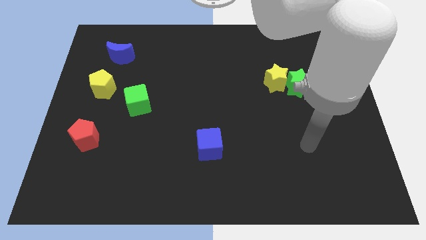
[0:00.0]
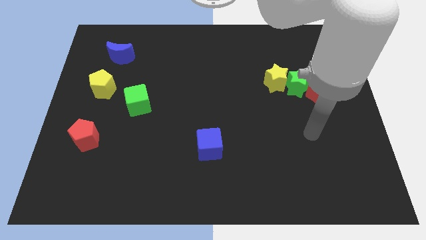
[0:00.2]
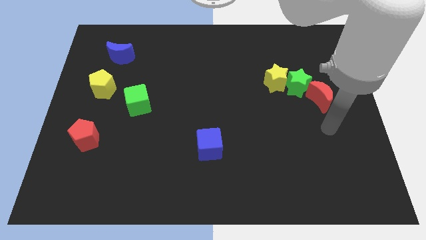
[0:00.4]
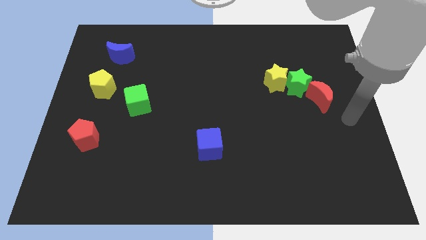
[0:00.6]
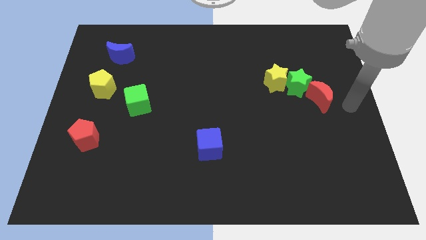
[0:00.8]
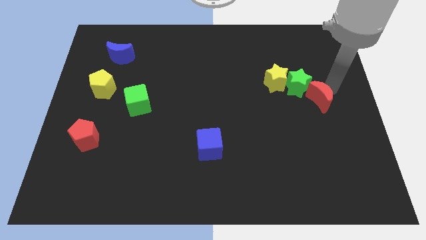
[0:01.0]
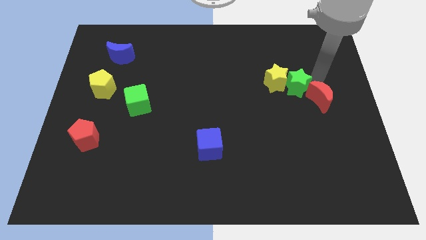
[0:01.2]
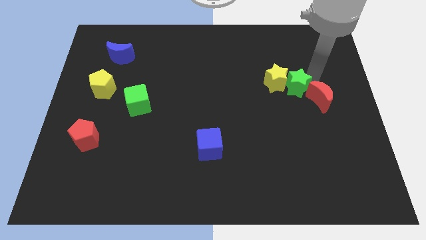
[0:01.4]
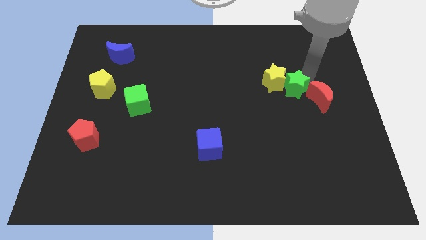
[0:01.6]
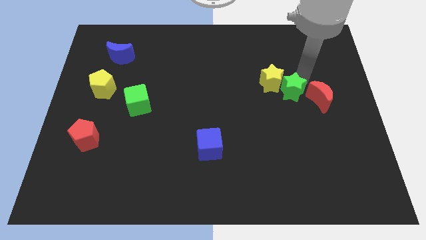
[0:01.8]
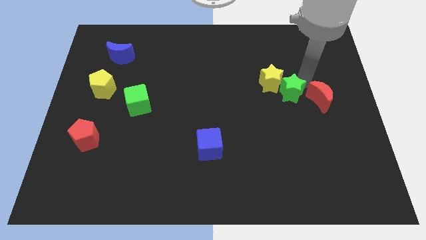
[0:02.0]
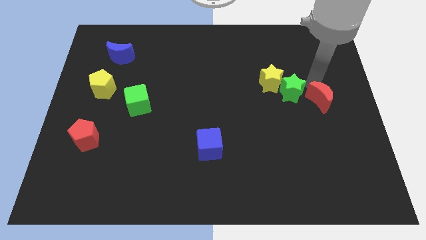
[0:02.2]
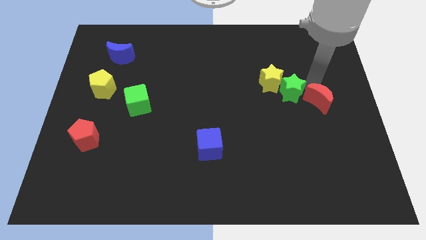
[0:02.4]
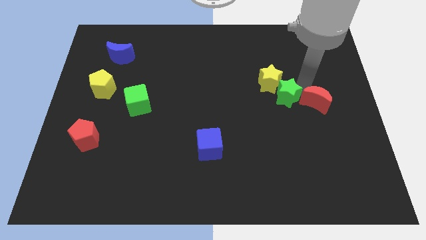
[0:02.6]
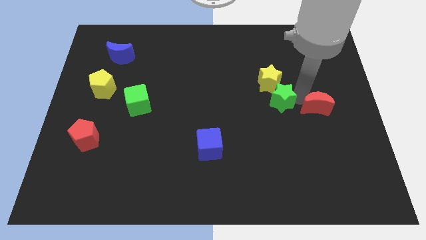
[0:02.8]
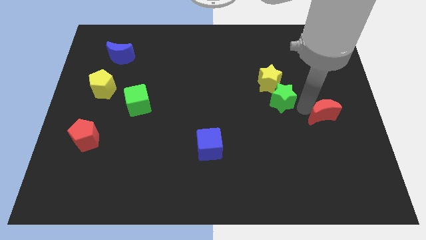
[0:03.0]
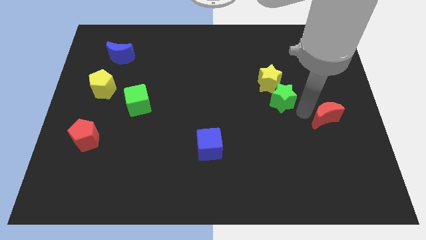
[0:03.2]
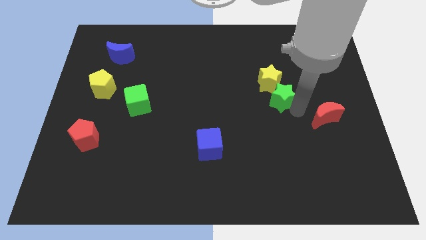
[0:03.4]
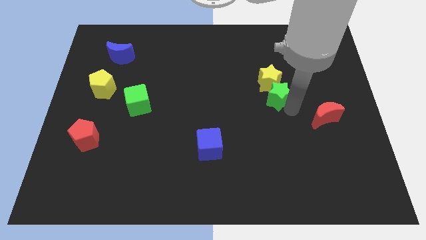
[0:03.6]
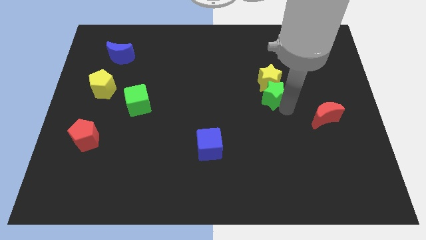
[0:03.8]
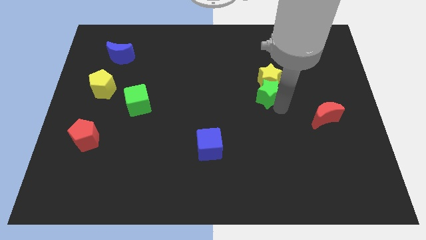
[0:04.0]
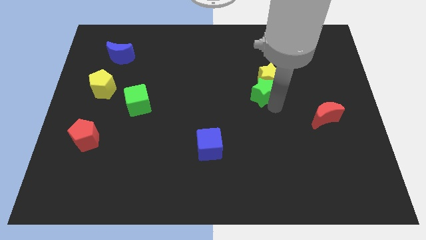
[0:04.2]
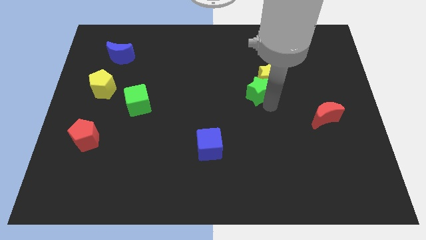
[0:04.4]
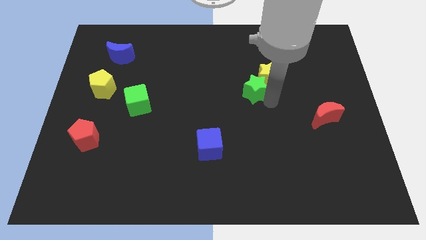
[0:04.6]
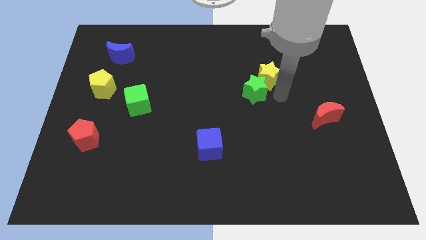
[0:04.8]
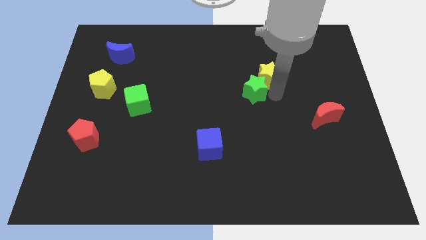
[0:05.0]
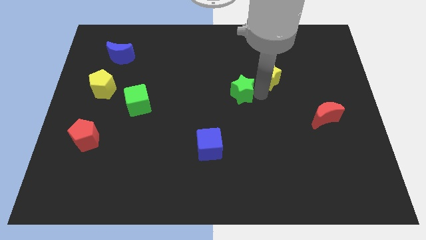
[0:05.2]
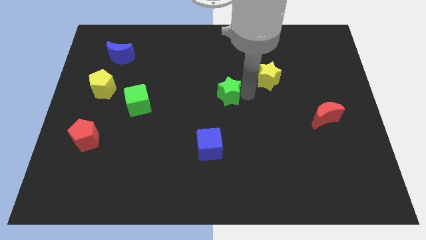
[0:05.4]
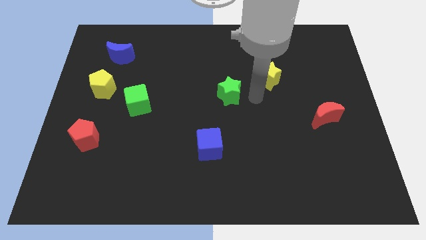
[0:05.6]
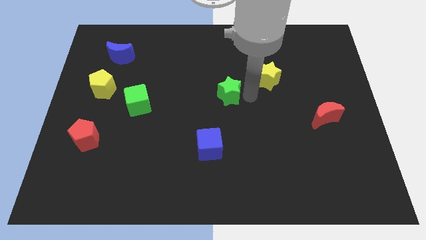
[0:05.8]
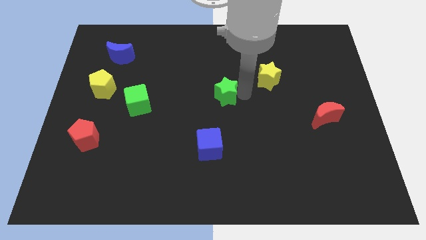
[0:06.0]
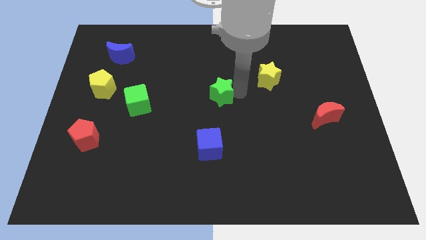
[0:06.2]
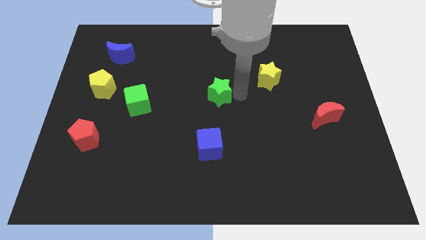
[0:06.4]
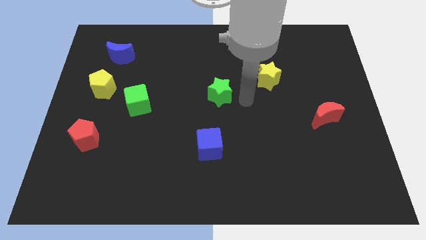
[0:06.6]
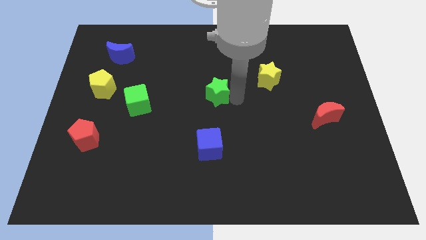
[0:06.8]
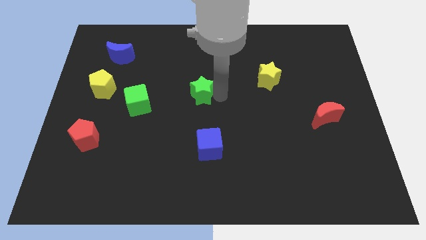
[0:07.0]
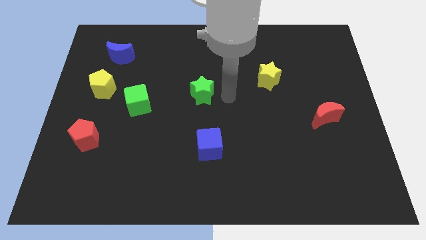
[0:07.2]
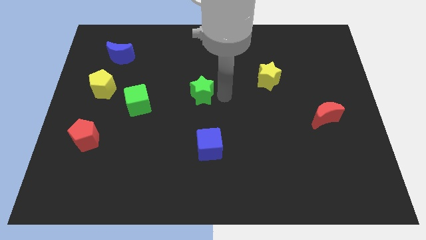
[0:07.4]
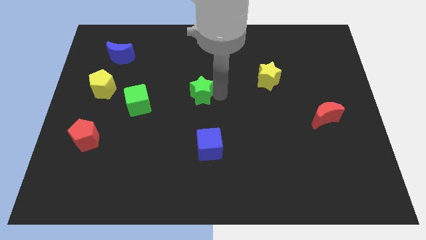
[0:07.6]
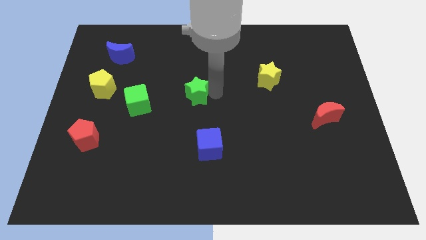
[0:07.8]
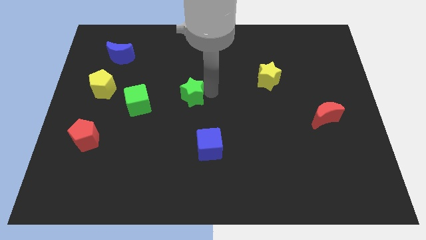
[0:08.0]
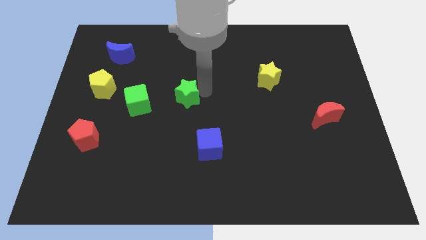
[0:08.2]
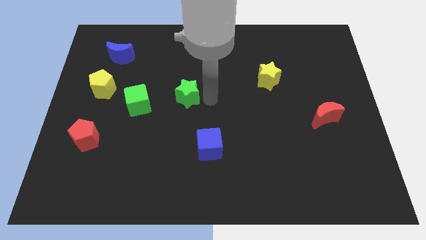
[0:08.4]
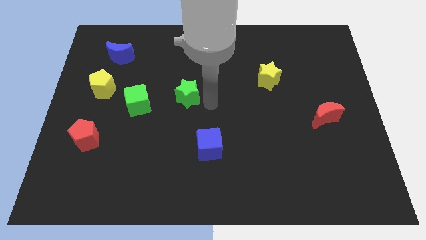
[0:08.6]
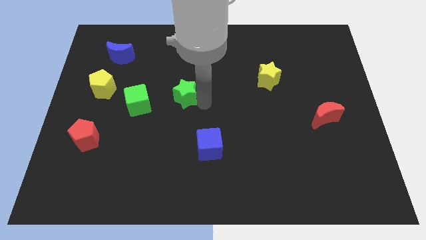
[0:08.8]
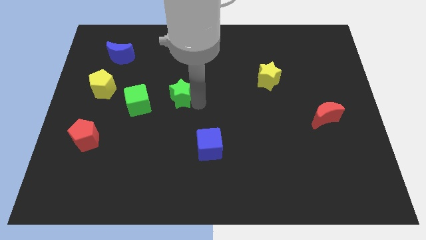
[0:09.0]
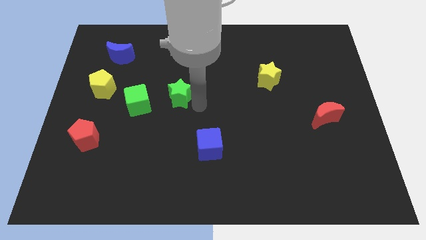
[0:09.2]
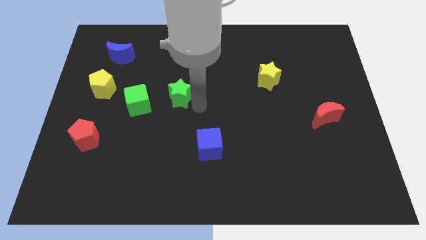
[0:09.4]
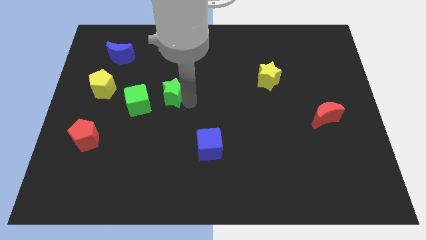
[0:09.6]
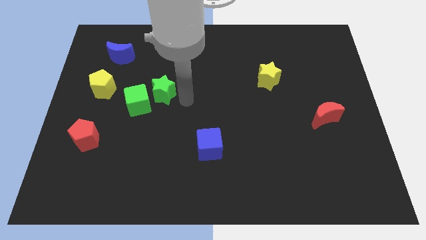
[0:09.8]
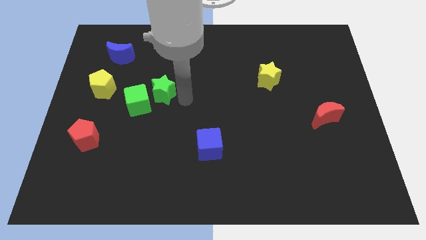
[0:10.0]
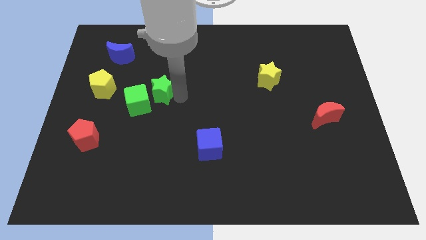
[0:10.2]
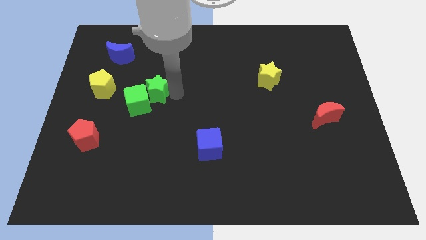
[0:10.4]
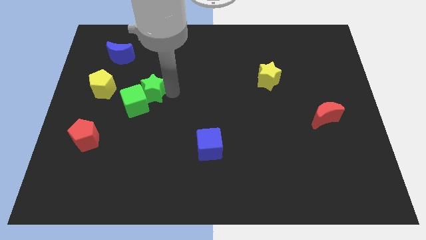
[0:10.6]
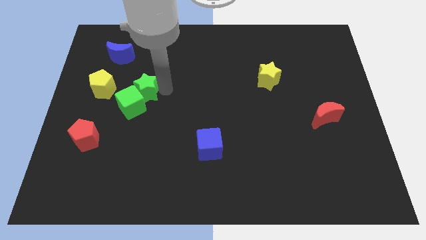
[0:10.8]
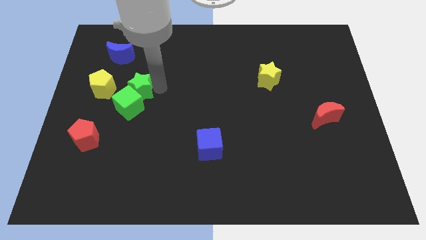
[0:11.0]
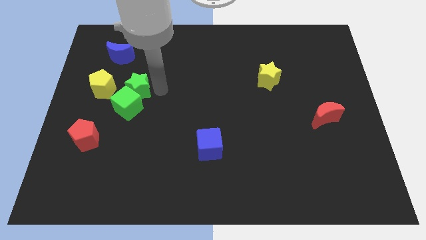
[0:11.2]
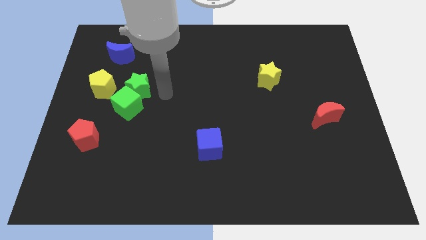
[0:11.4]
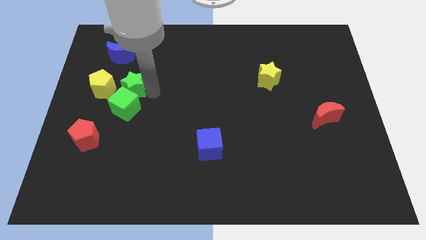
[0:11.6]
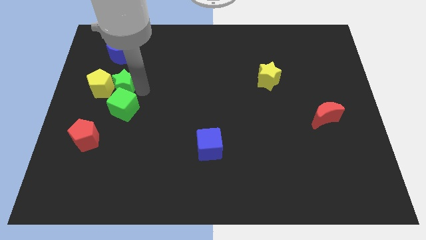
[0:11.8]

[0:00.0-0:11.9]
move the green star close to the yellow pentagon

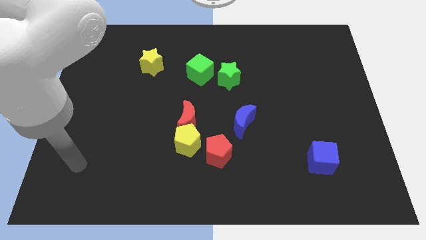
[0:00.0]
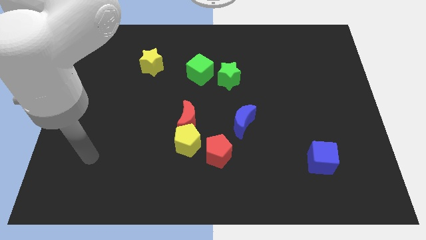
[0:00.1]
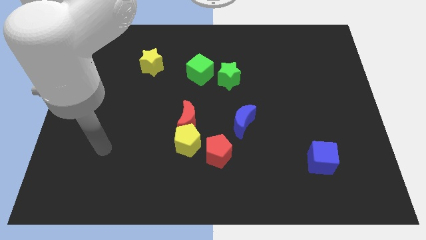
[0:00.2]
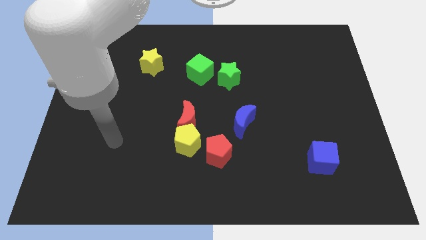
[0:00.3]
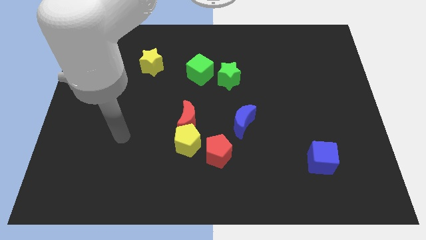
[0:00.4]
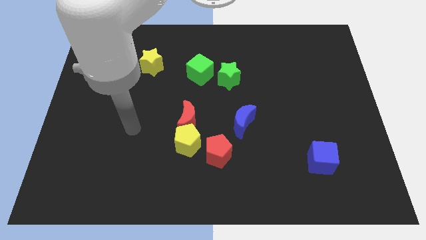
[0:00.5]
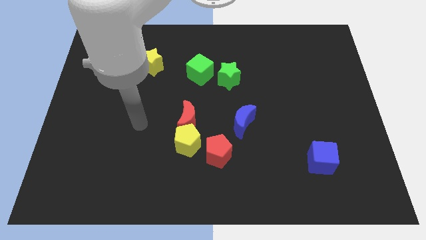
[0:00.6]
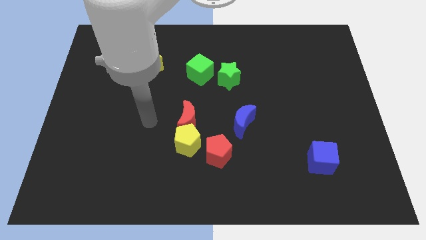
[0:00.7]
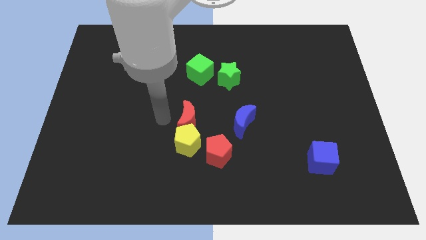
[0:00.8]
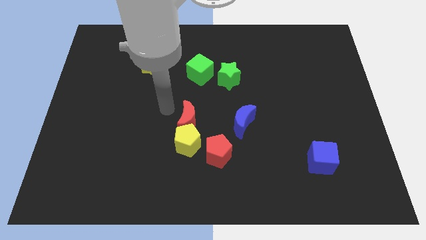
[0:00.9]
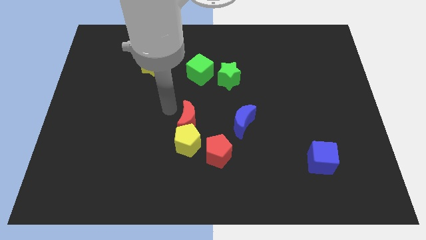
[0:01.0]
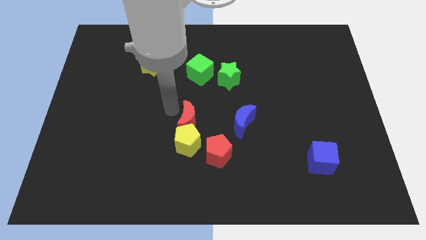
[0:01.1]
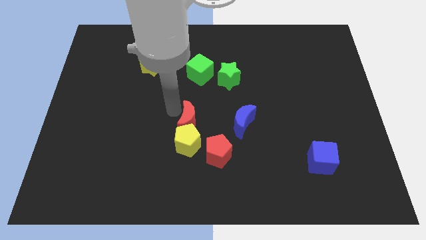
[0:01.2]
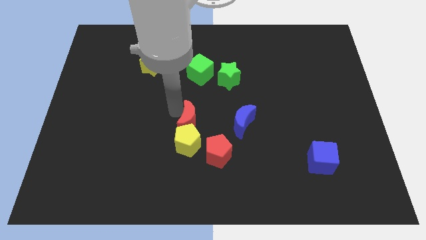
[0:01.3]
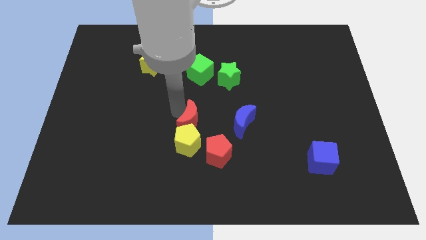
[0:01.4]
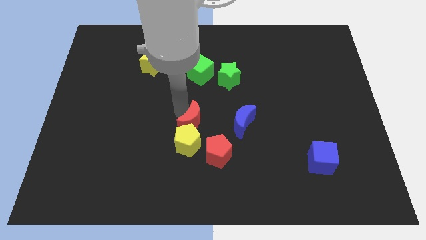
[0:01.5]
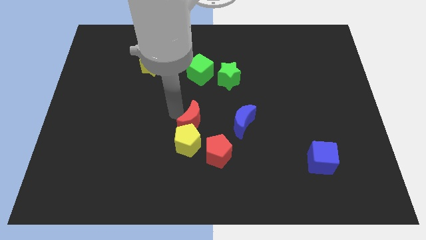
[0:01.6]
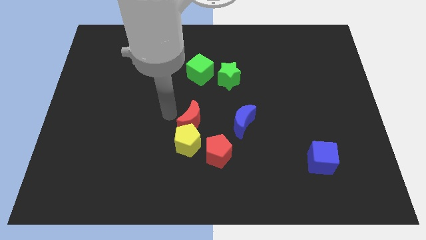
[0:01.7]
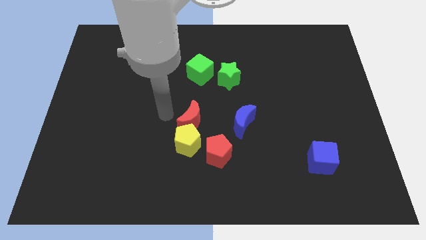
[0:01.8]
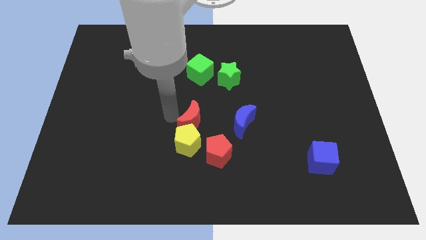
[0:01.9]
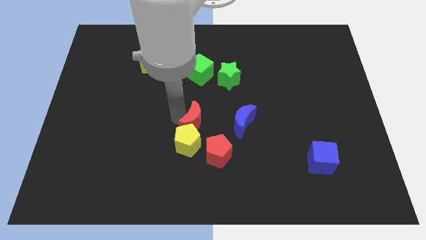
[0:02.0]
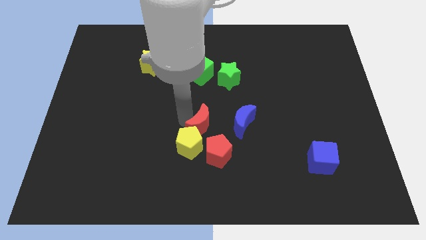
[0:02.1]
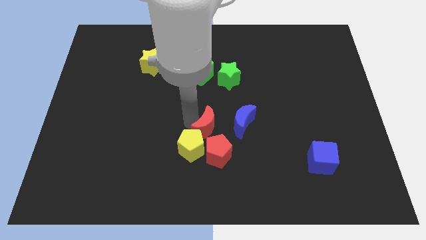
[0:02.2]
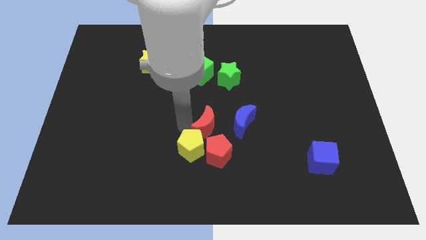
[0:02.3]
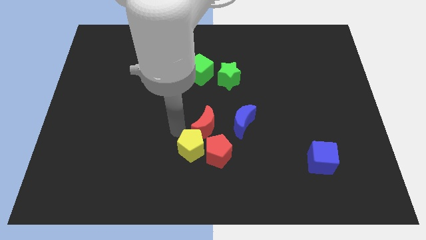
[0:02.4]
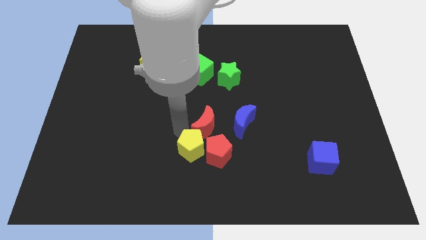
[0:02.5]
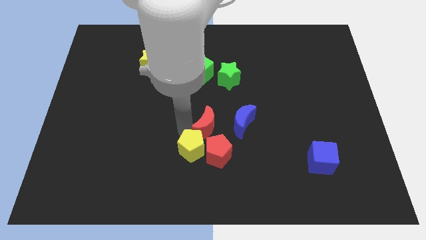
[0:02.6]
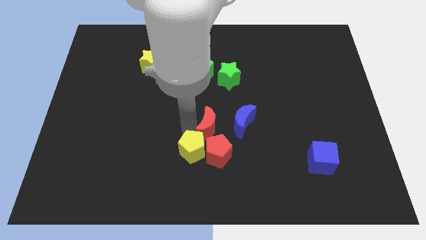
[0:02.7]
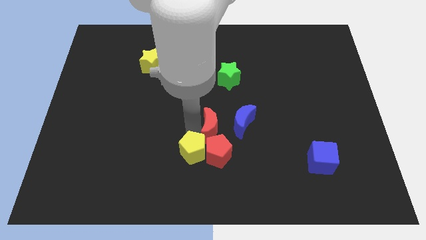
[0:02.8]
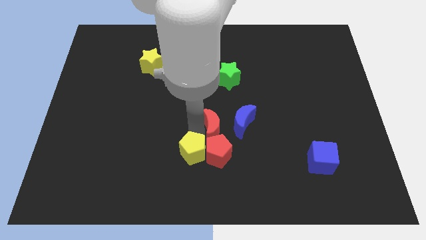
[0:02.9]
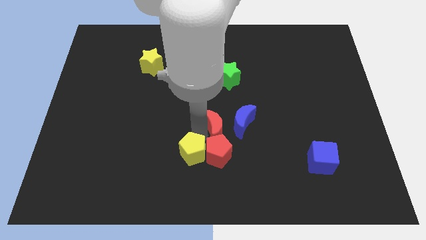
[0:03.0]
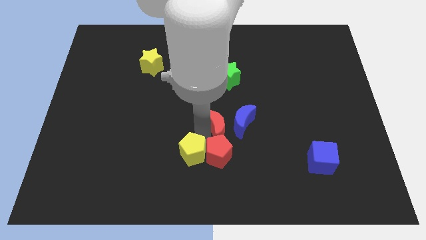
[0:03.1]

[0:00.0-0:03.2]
push the red moon close to the blue moon
